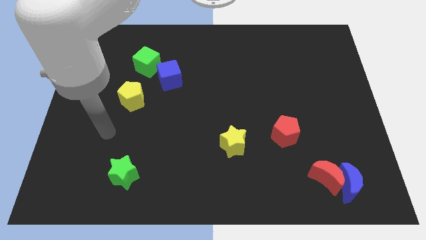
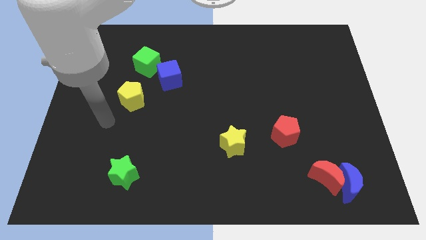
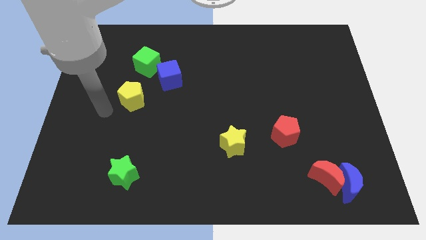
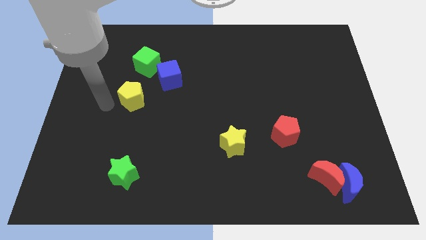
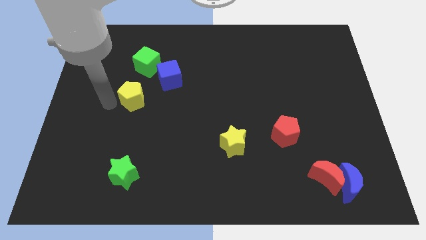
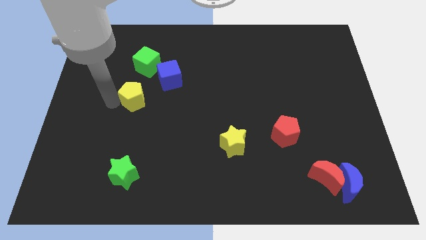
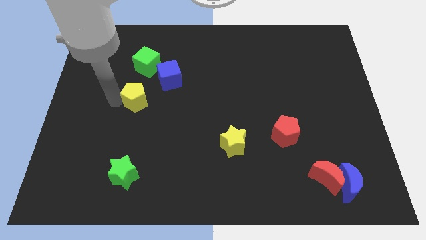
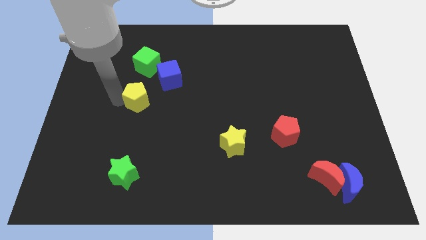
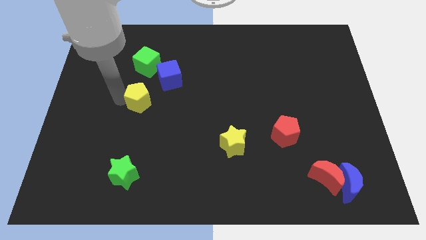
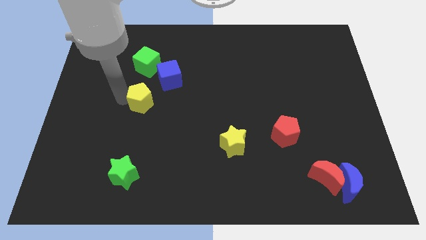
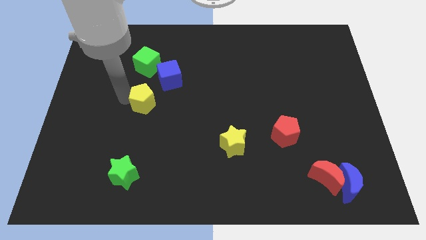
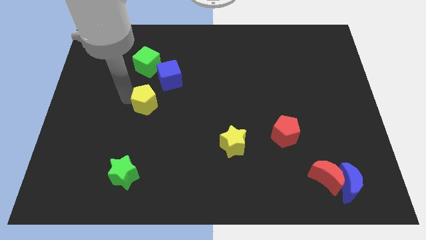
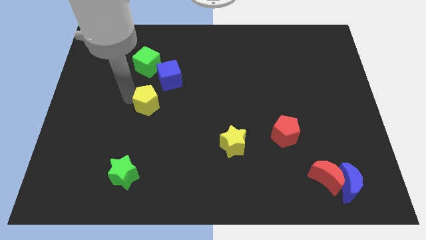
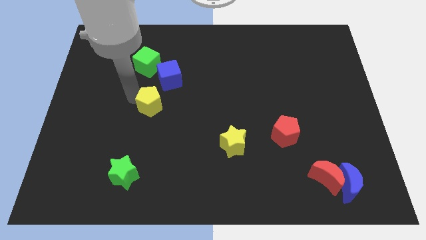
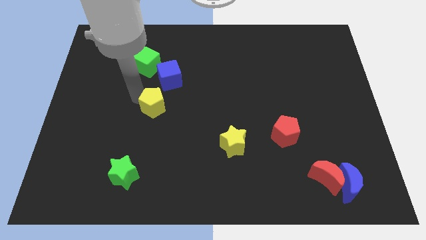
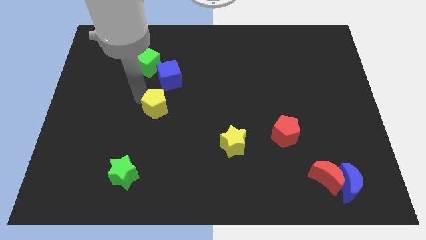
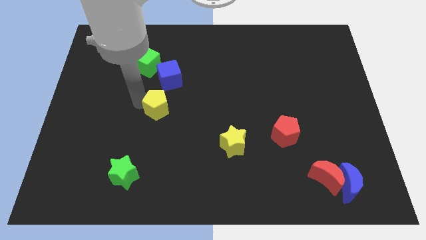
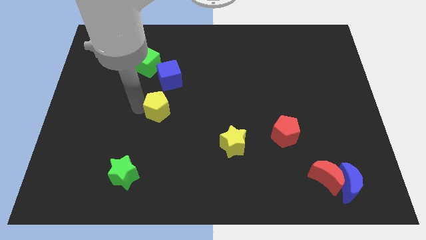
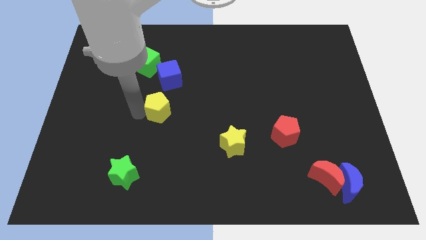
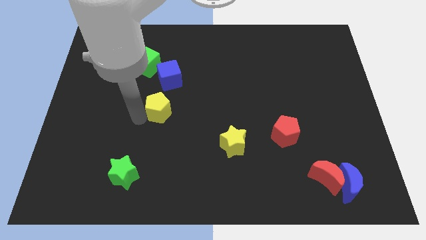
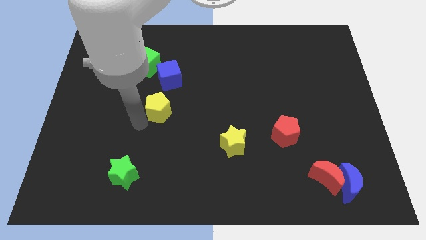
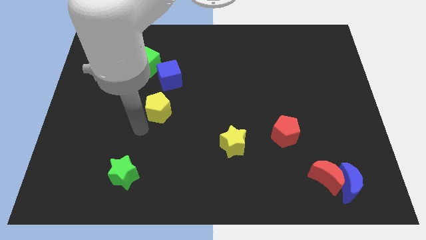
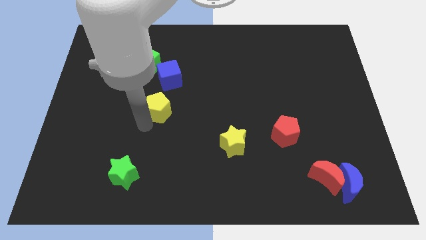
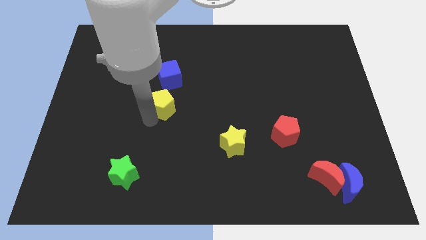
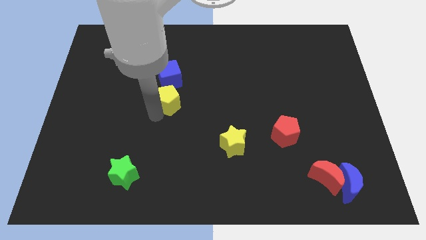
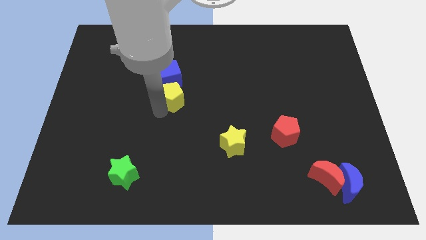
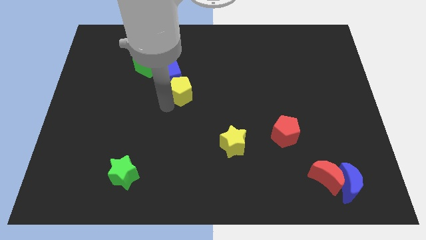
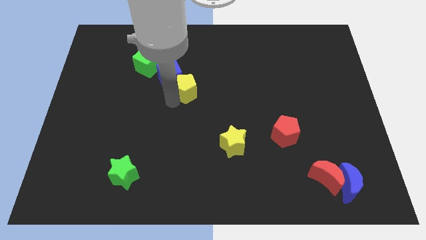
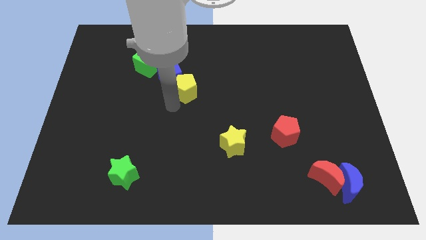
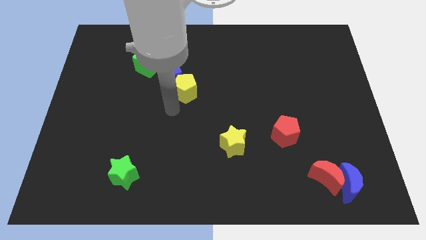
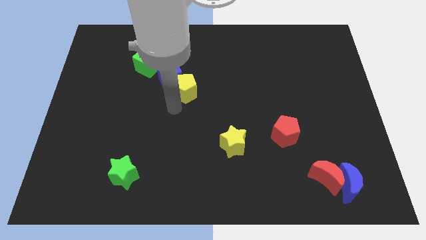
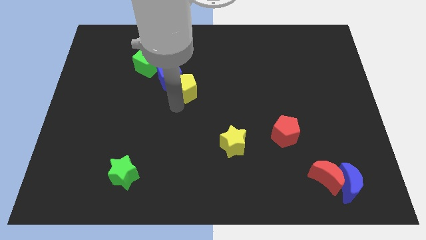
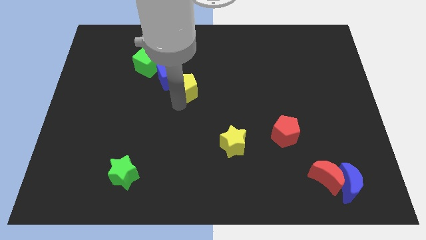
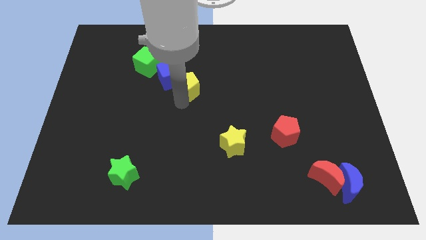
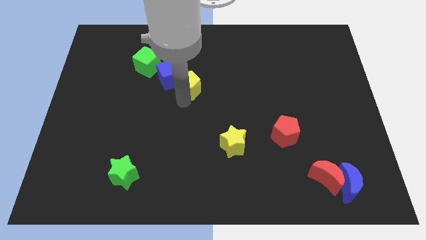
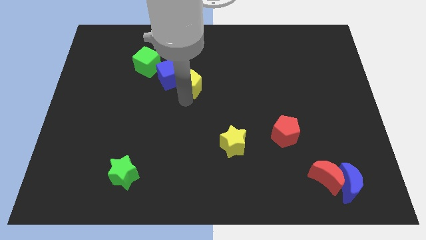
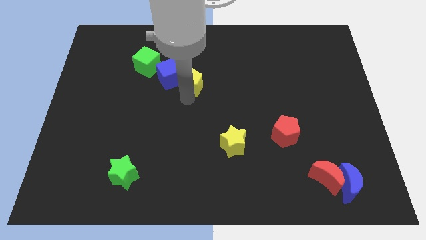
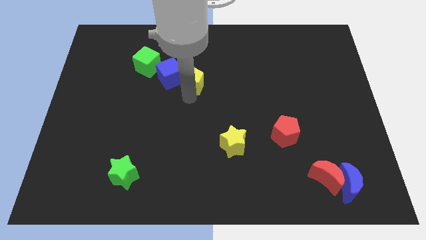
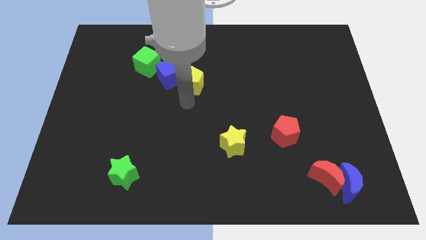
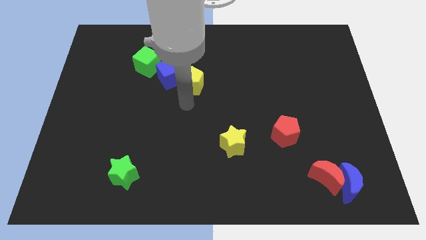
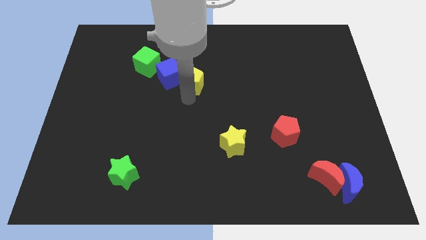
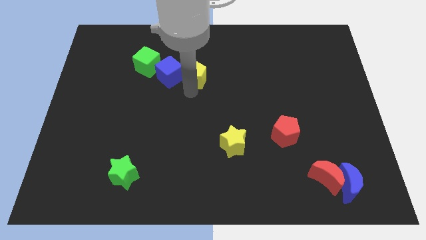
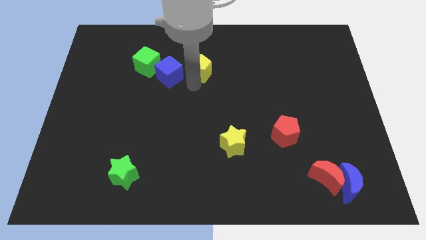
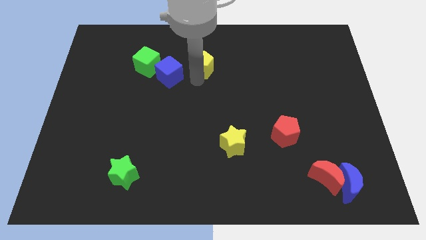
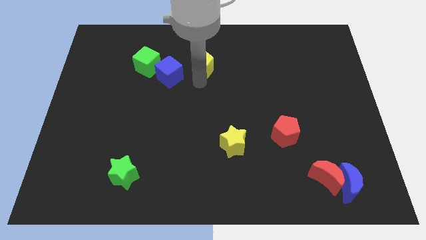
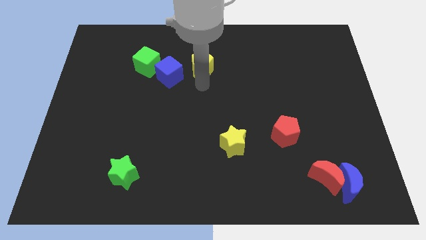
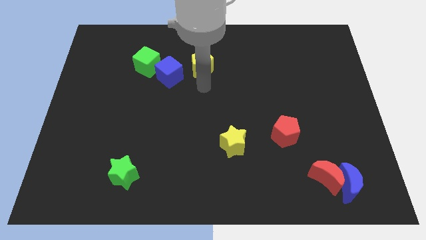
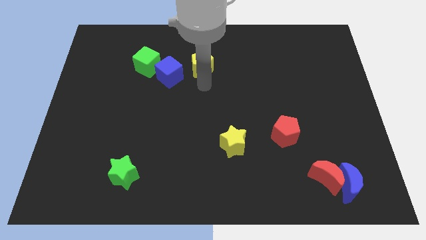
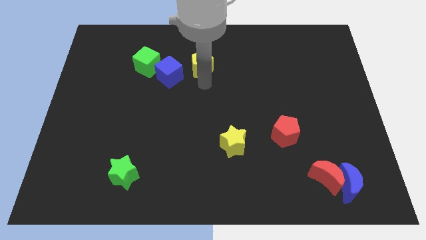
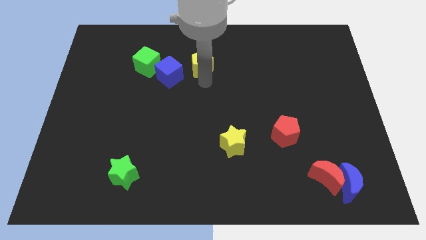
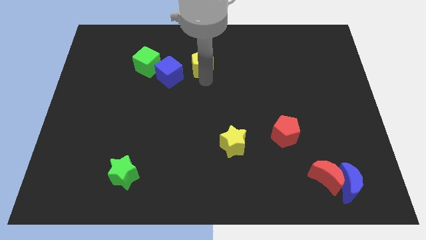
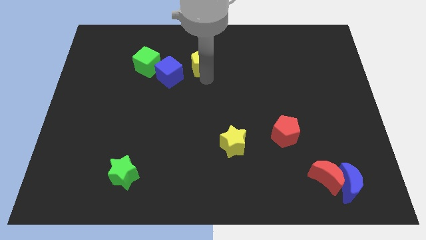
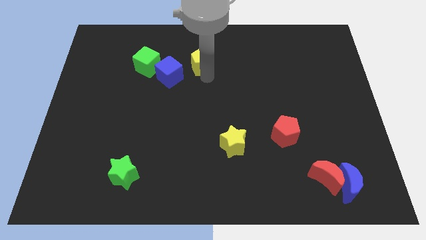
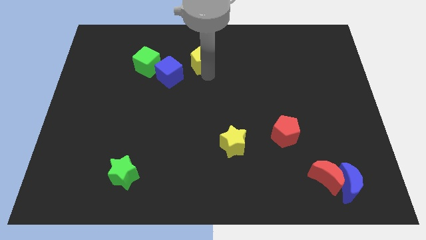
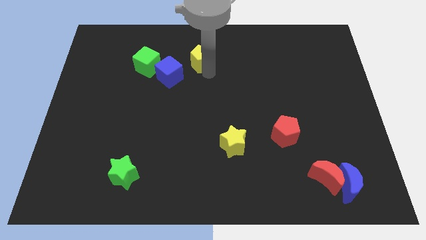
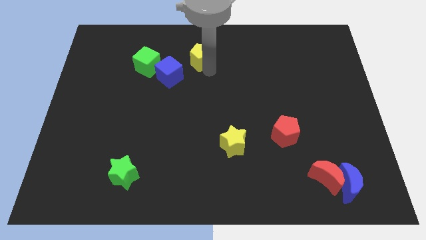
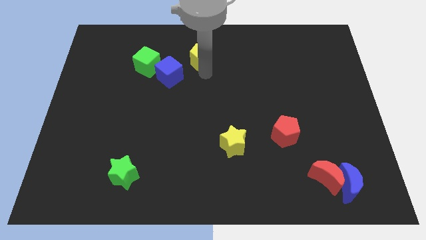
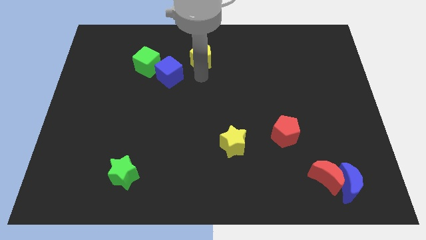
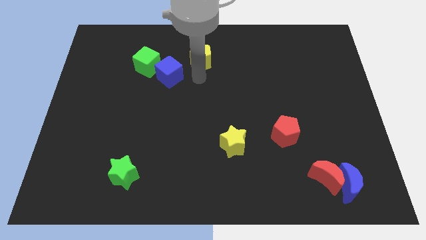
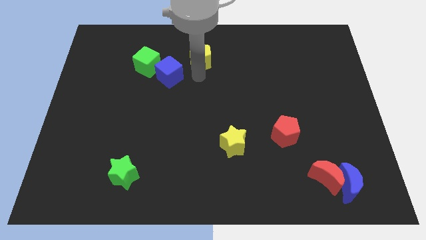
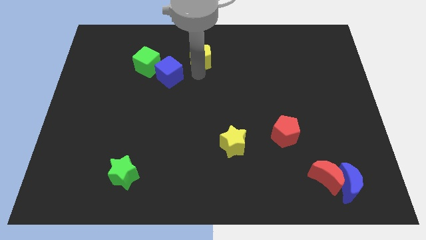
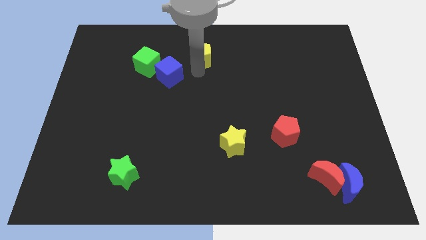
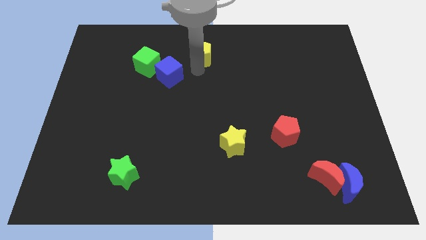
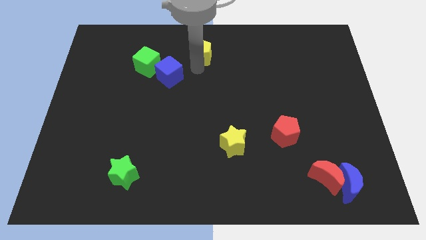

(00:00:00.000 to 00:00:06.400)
put the yellow pentagon to the top side
